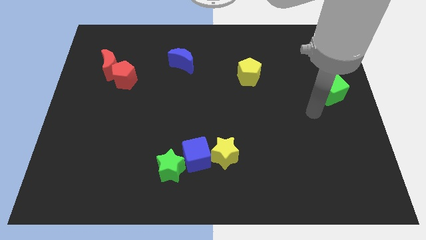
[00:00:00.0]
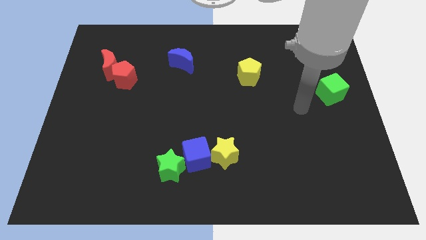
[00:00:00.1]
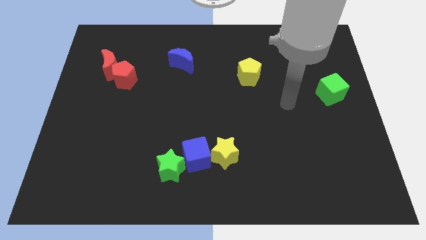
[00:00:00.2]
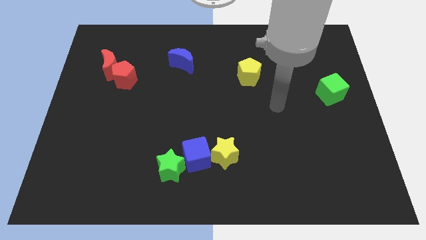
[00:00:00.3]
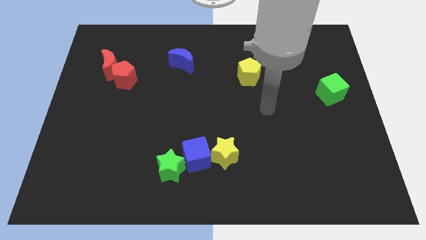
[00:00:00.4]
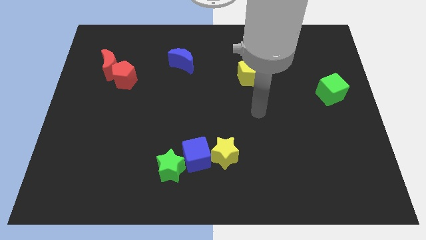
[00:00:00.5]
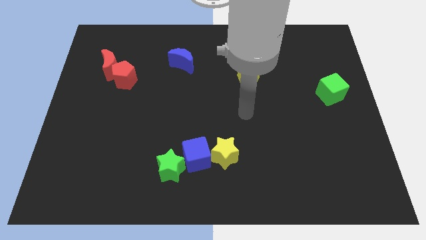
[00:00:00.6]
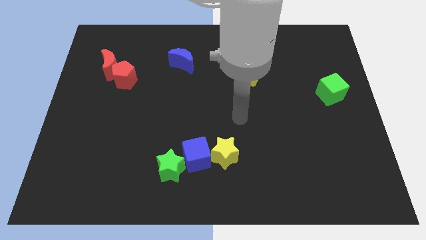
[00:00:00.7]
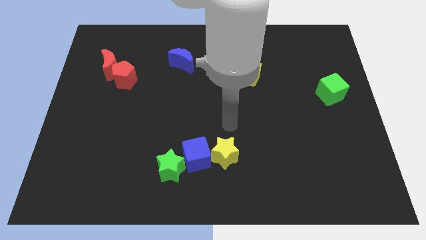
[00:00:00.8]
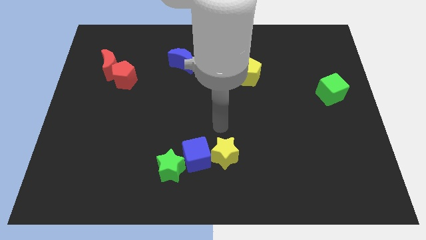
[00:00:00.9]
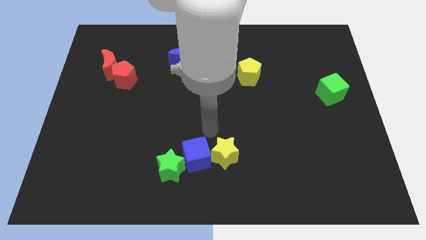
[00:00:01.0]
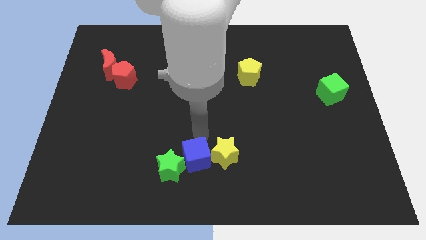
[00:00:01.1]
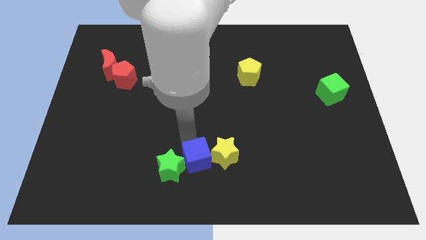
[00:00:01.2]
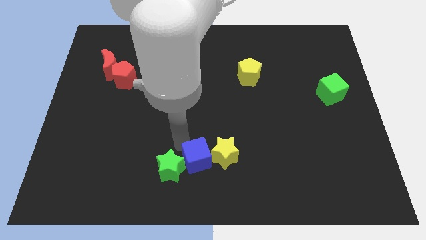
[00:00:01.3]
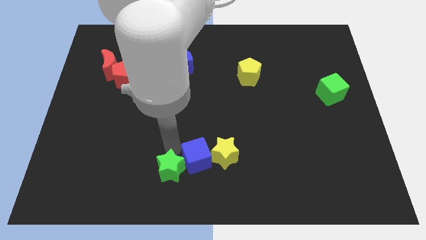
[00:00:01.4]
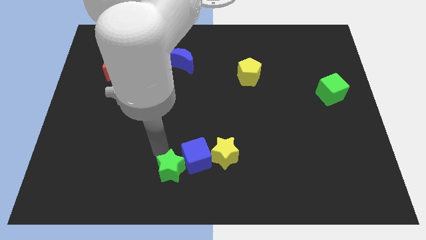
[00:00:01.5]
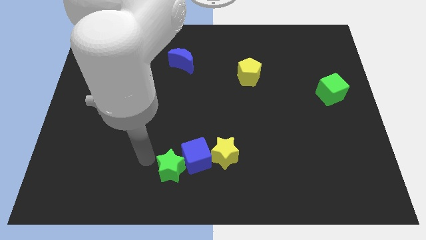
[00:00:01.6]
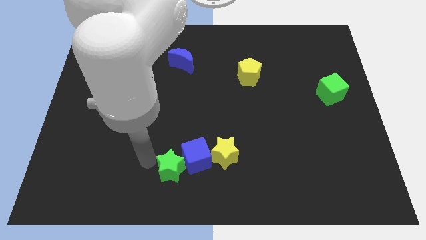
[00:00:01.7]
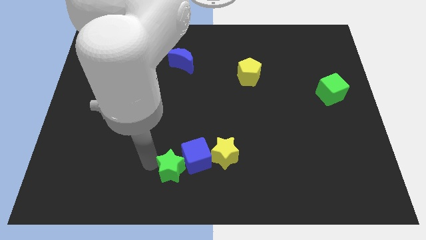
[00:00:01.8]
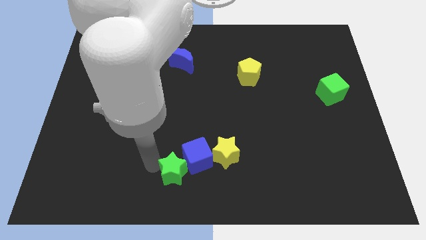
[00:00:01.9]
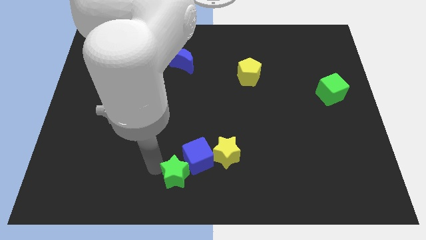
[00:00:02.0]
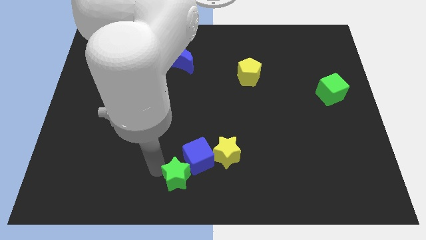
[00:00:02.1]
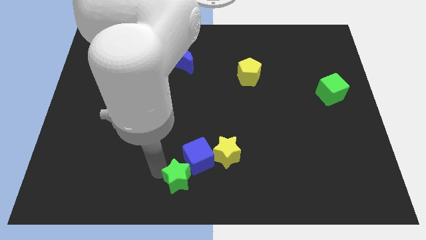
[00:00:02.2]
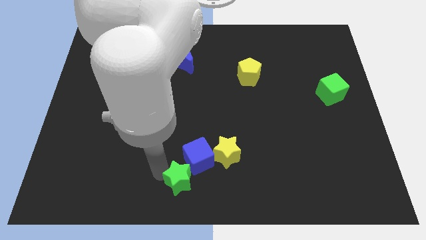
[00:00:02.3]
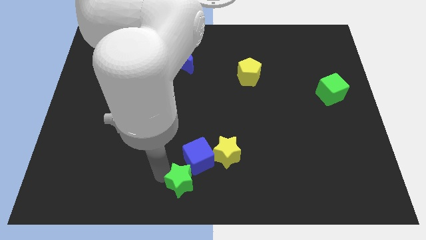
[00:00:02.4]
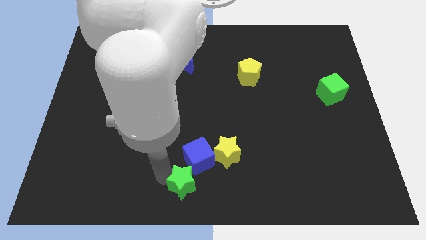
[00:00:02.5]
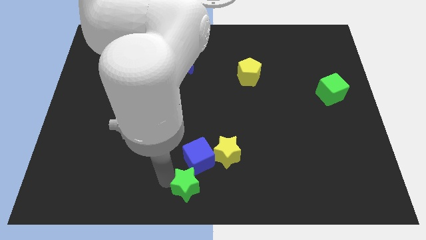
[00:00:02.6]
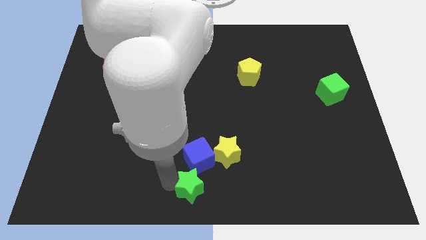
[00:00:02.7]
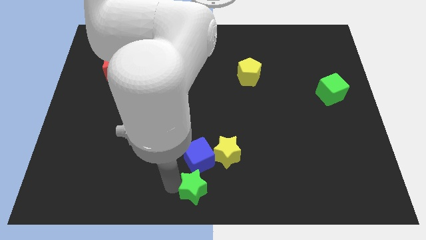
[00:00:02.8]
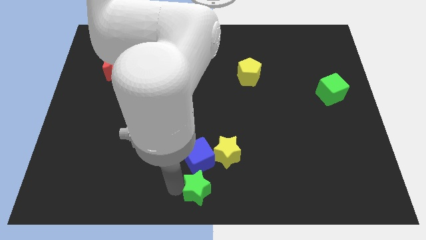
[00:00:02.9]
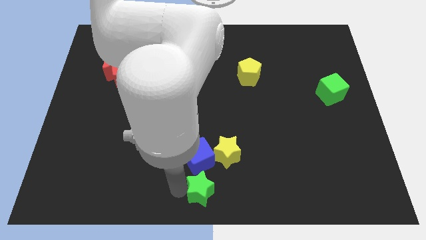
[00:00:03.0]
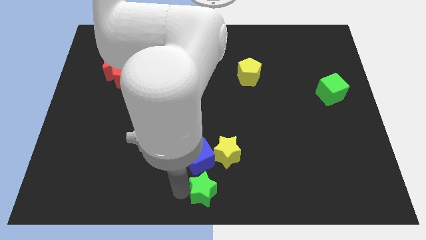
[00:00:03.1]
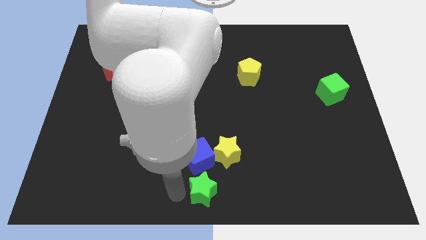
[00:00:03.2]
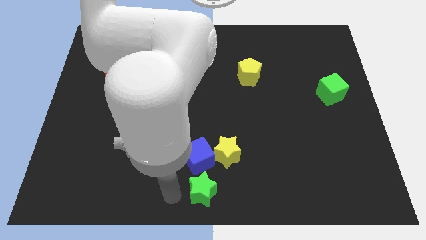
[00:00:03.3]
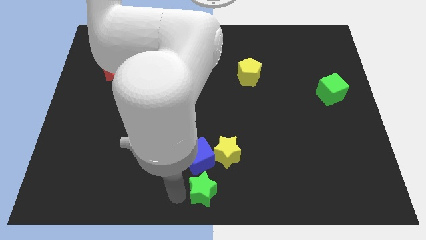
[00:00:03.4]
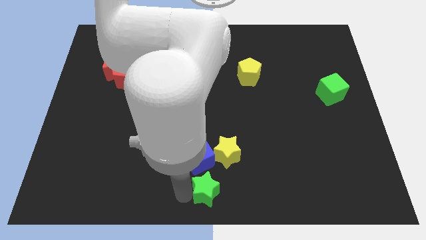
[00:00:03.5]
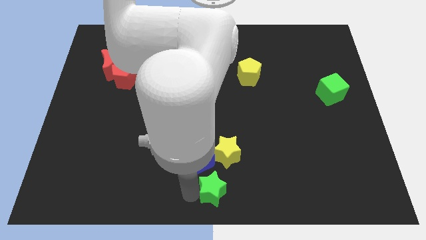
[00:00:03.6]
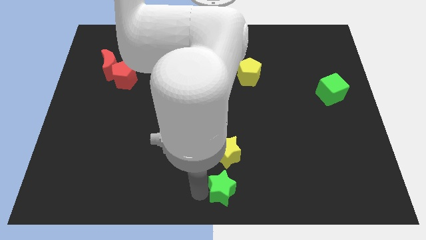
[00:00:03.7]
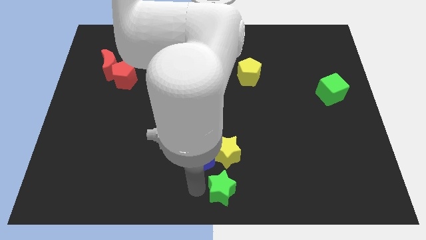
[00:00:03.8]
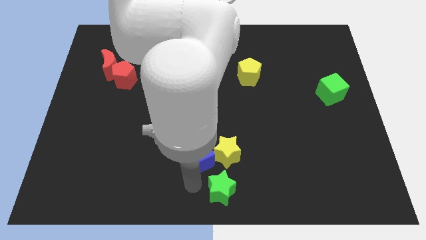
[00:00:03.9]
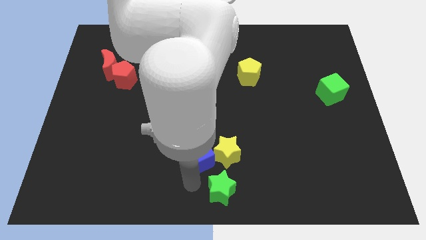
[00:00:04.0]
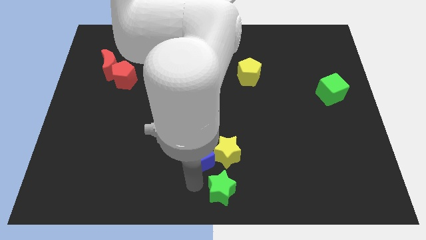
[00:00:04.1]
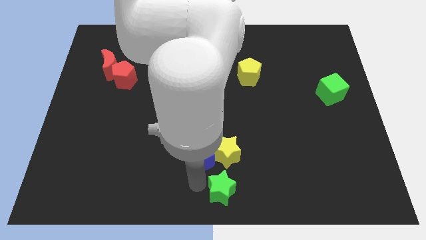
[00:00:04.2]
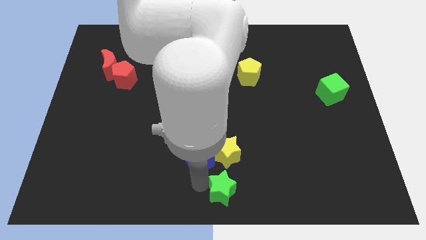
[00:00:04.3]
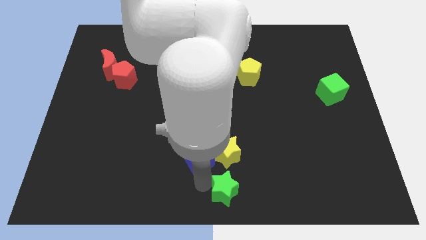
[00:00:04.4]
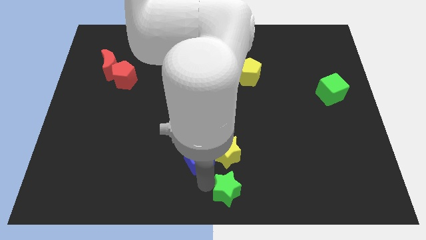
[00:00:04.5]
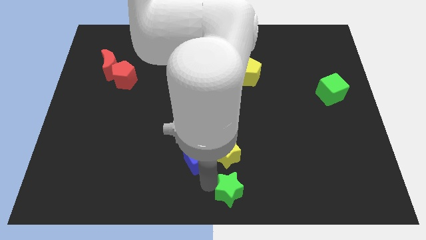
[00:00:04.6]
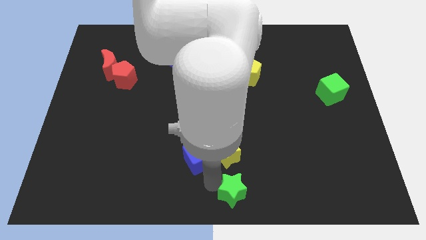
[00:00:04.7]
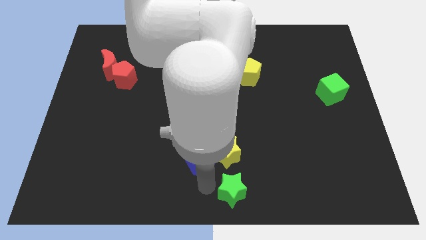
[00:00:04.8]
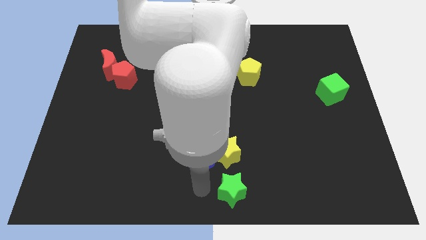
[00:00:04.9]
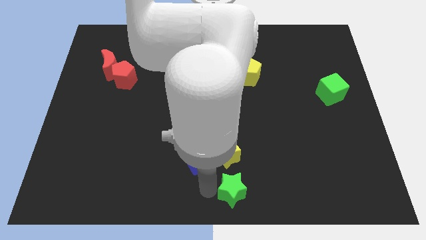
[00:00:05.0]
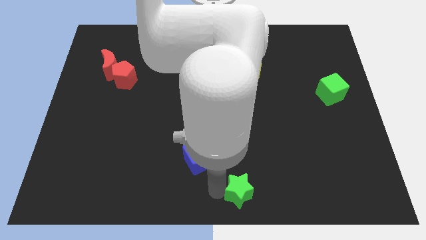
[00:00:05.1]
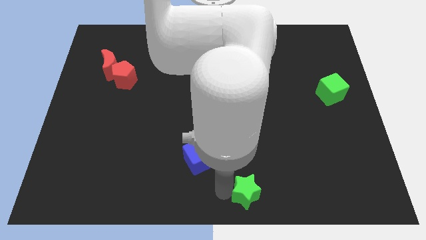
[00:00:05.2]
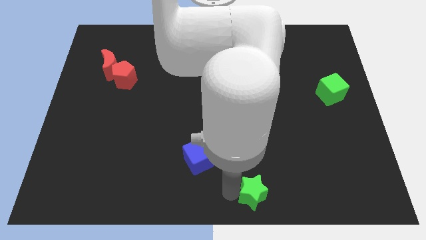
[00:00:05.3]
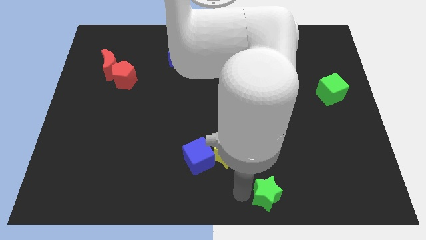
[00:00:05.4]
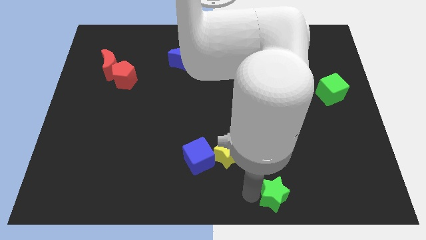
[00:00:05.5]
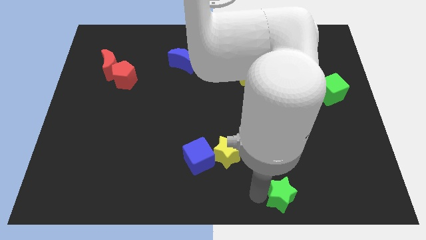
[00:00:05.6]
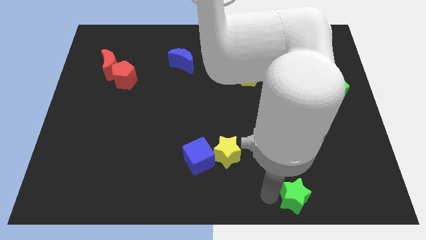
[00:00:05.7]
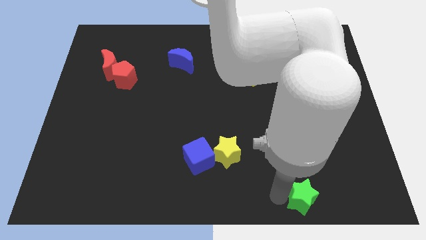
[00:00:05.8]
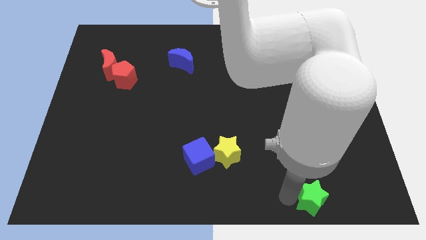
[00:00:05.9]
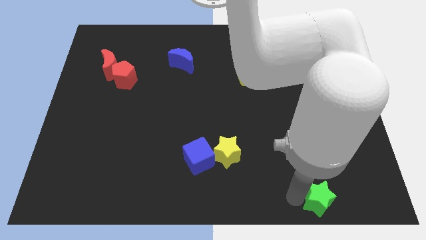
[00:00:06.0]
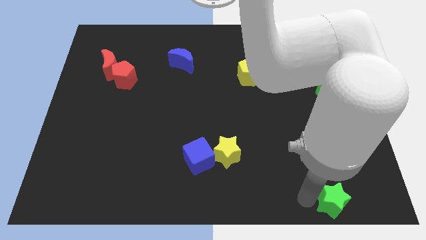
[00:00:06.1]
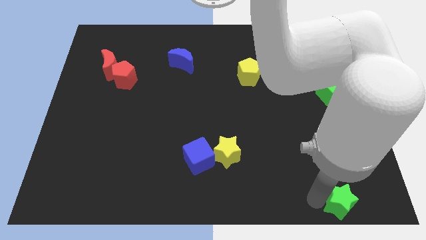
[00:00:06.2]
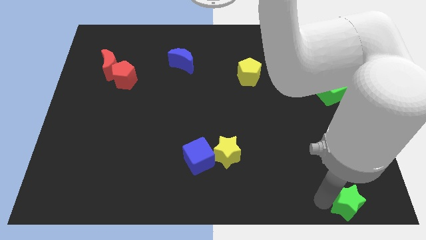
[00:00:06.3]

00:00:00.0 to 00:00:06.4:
put the green star to the bottom right of the board
